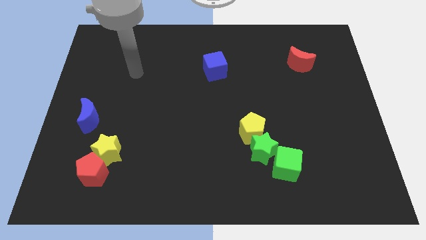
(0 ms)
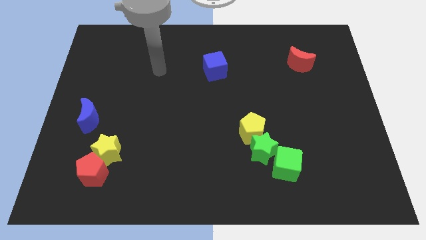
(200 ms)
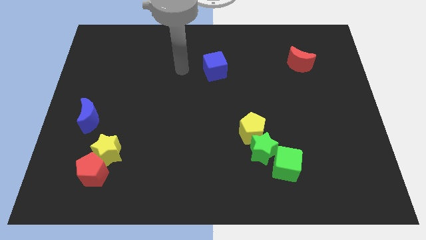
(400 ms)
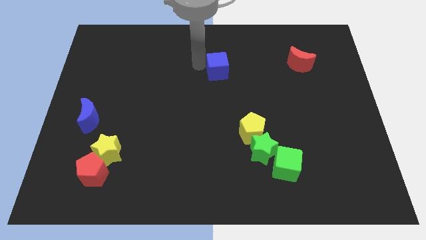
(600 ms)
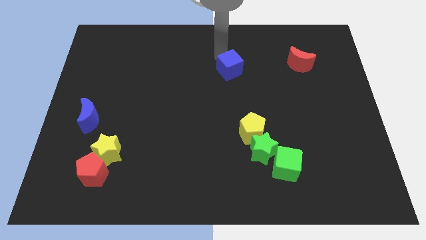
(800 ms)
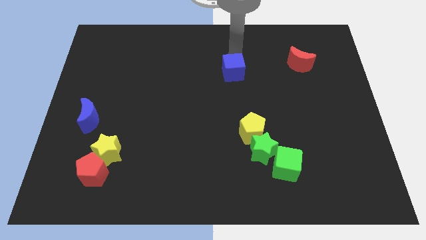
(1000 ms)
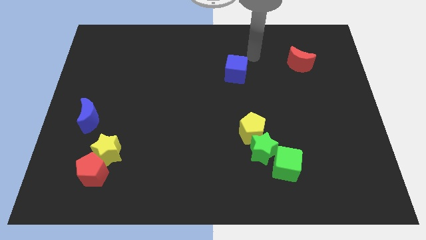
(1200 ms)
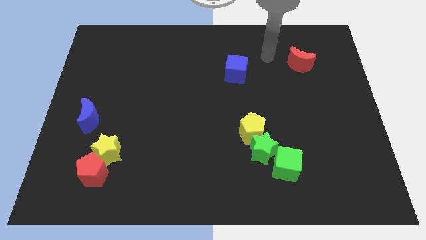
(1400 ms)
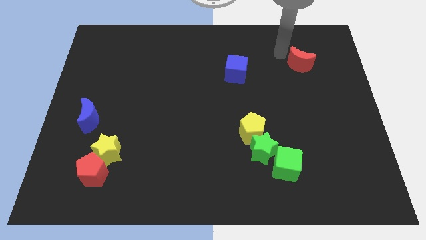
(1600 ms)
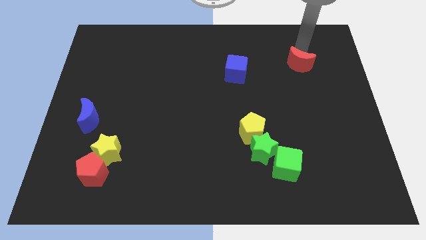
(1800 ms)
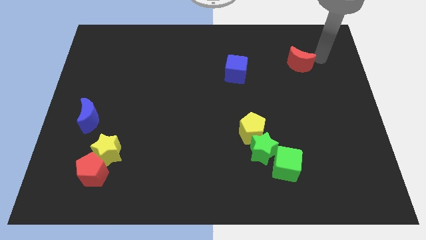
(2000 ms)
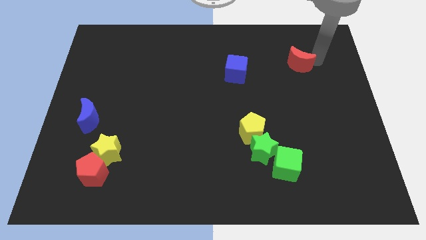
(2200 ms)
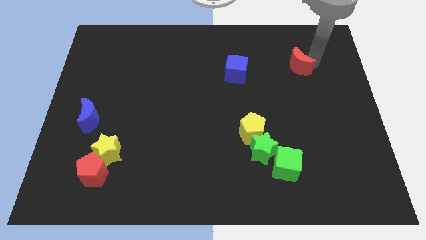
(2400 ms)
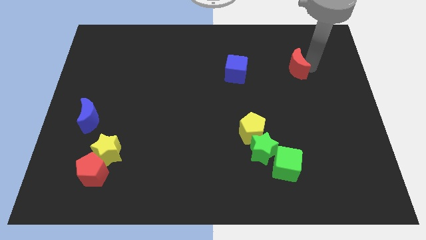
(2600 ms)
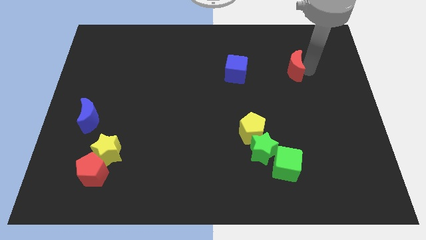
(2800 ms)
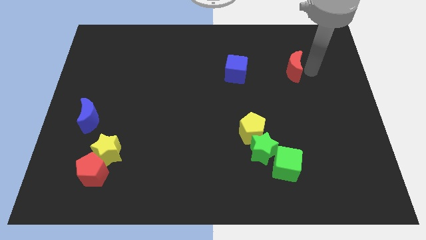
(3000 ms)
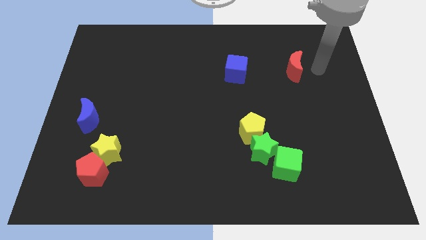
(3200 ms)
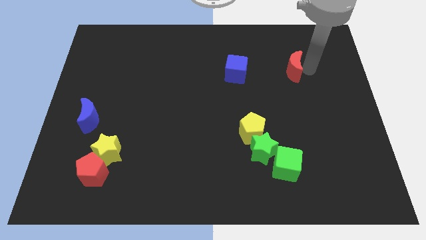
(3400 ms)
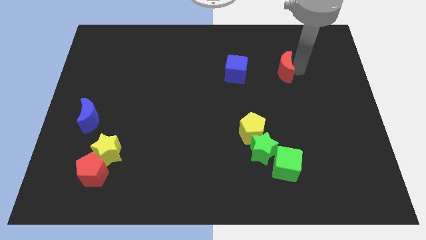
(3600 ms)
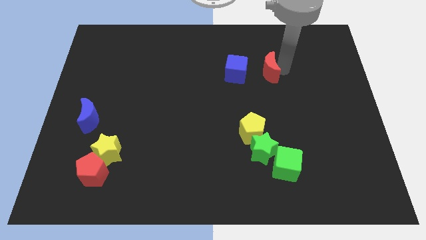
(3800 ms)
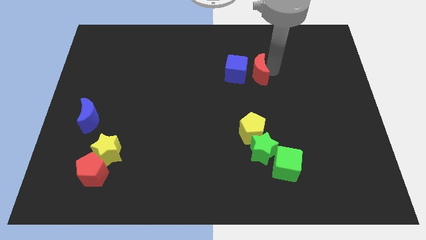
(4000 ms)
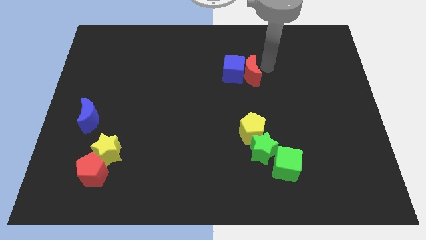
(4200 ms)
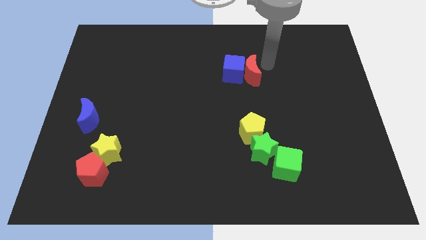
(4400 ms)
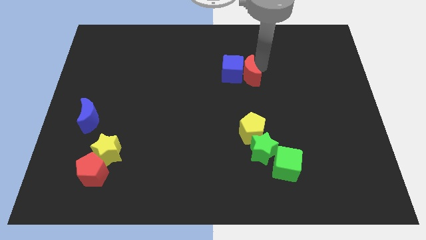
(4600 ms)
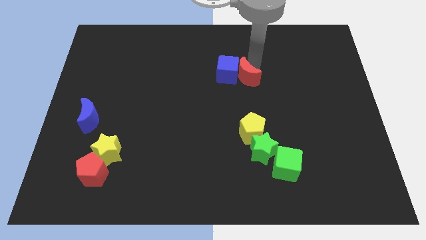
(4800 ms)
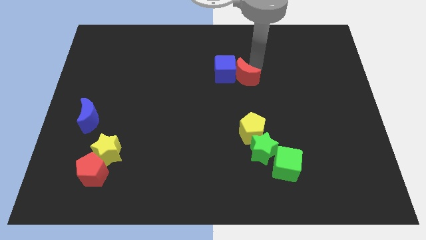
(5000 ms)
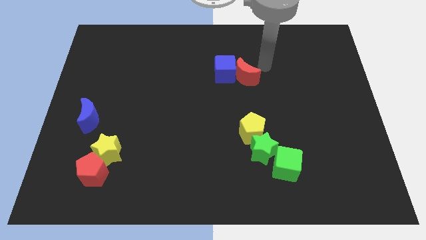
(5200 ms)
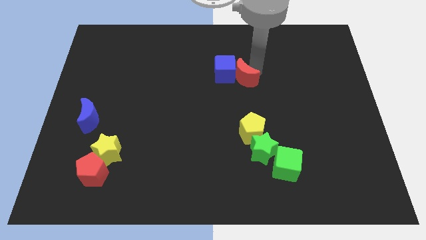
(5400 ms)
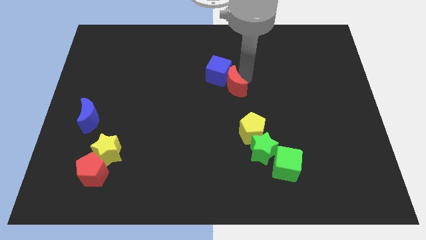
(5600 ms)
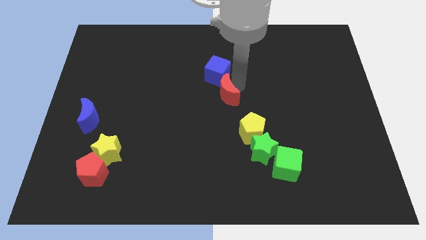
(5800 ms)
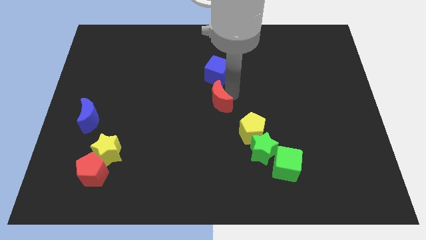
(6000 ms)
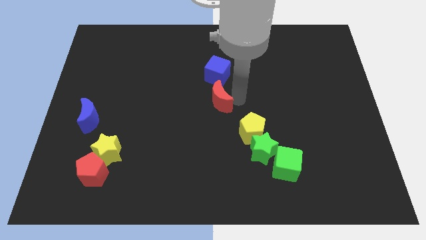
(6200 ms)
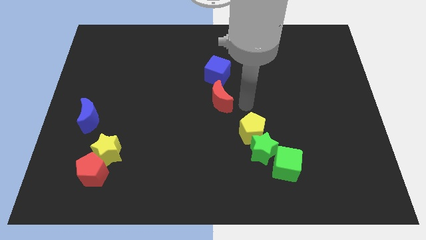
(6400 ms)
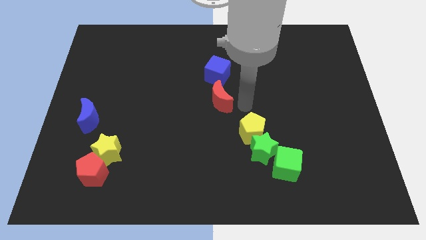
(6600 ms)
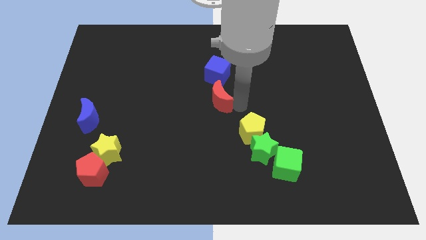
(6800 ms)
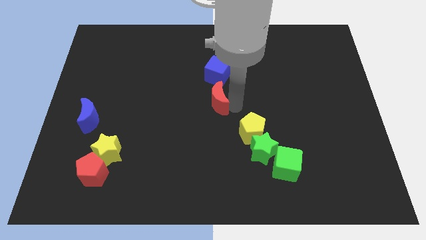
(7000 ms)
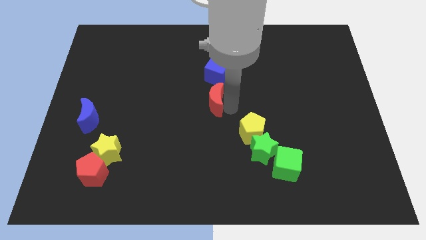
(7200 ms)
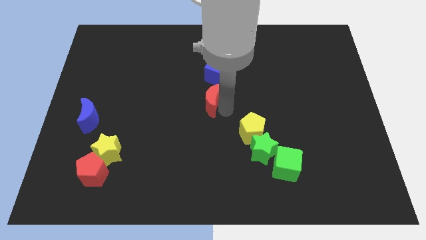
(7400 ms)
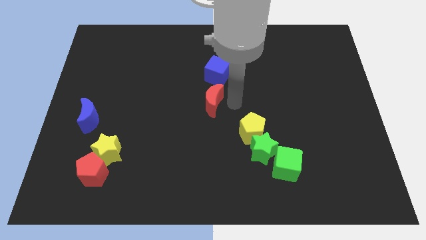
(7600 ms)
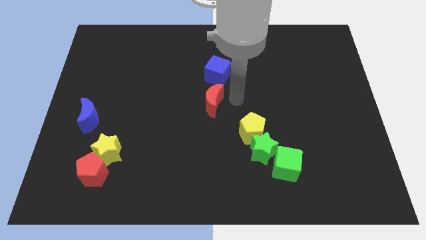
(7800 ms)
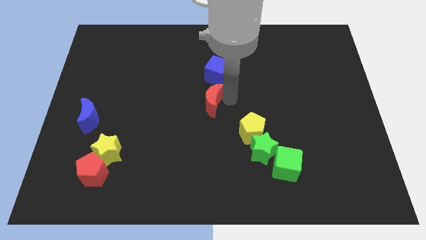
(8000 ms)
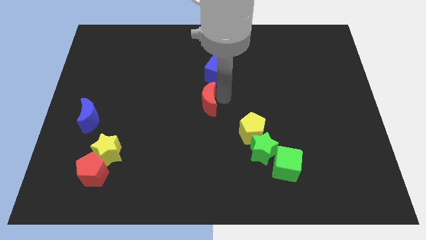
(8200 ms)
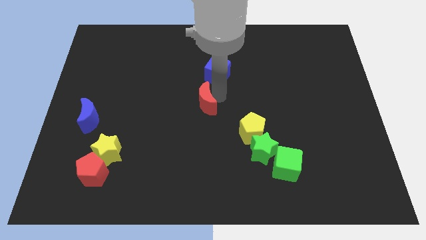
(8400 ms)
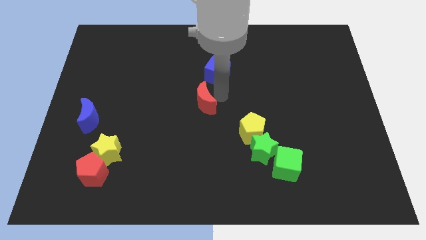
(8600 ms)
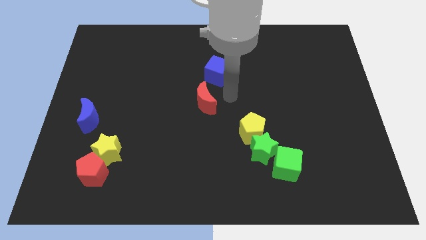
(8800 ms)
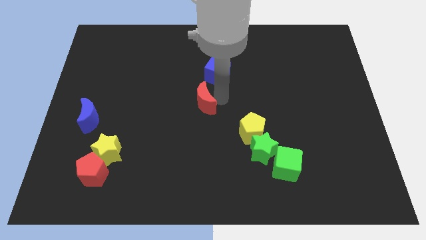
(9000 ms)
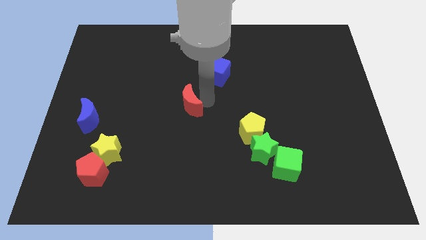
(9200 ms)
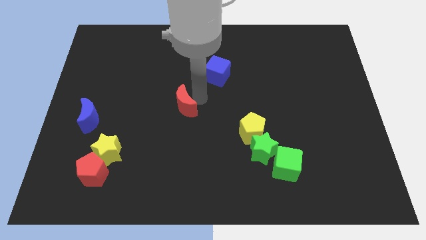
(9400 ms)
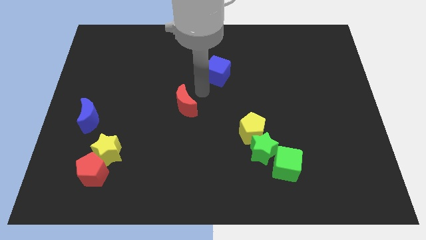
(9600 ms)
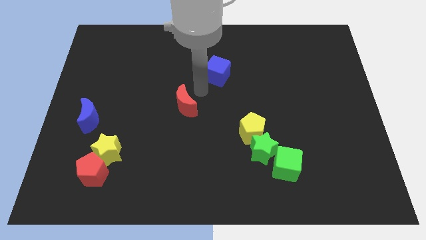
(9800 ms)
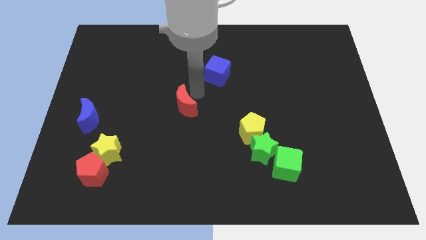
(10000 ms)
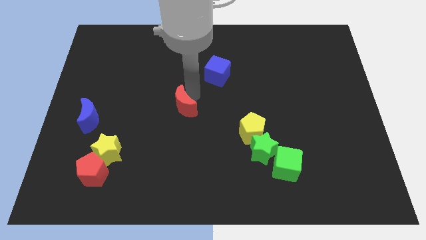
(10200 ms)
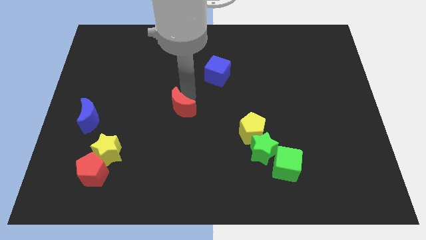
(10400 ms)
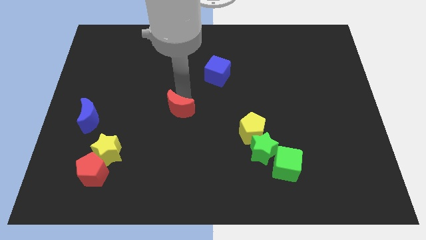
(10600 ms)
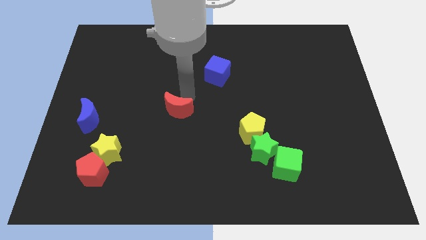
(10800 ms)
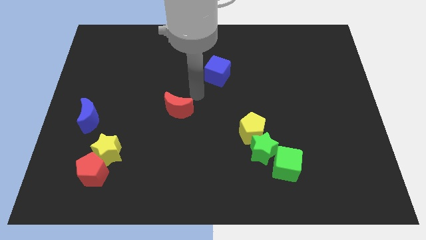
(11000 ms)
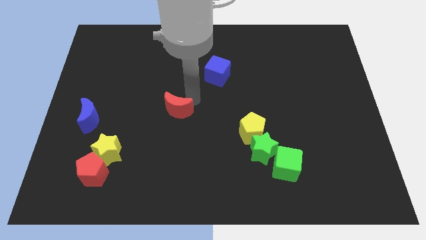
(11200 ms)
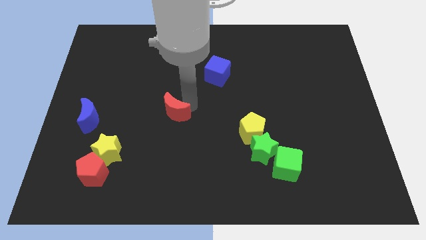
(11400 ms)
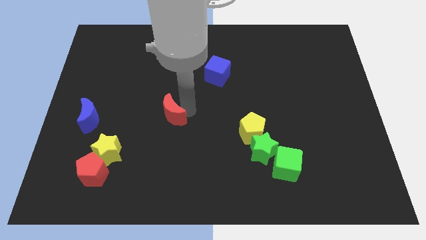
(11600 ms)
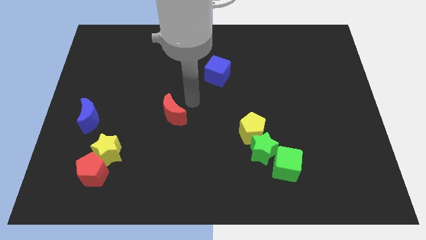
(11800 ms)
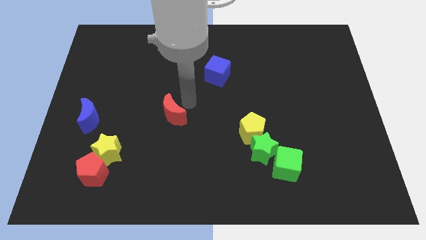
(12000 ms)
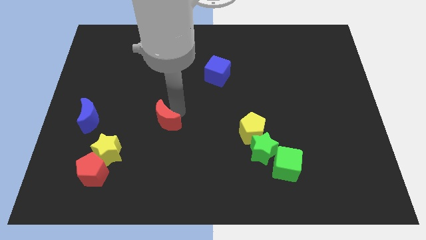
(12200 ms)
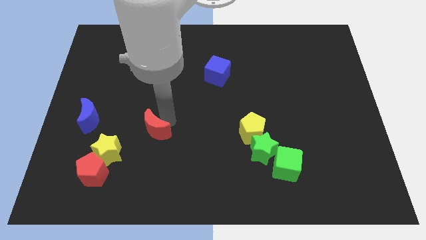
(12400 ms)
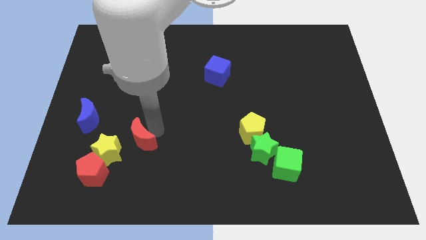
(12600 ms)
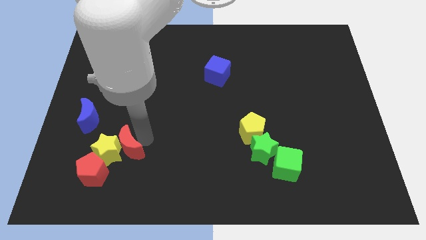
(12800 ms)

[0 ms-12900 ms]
push the red moon to the yellow star
